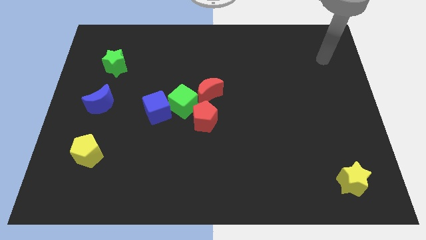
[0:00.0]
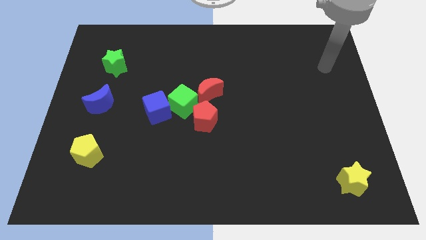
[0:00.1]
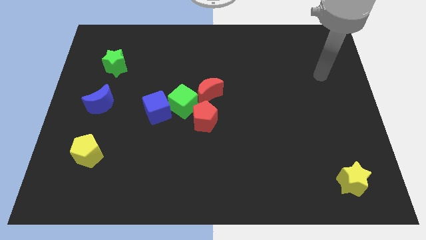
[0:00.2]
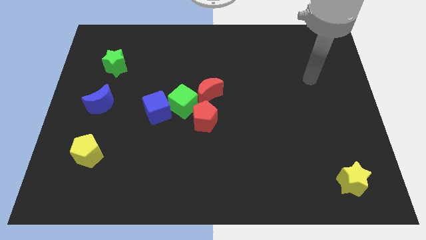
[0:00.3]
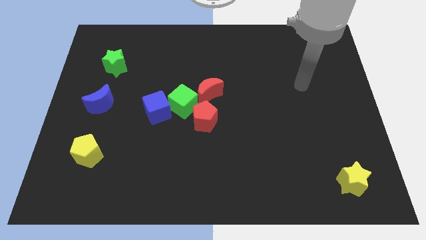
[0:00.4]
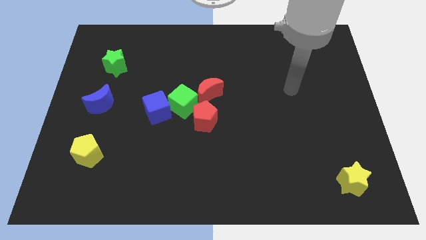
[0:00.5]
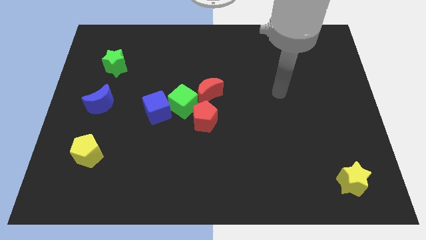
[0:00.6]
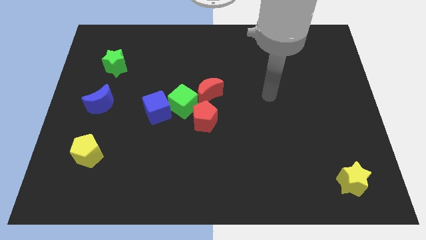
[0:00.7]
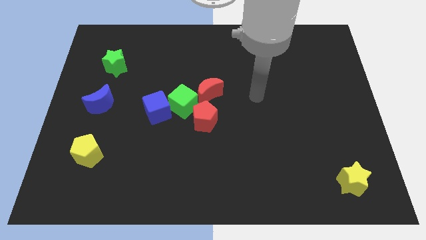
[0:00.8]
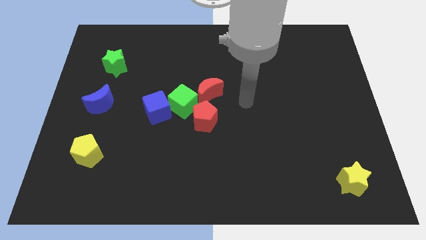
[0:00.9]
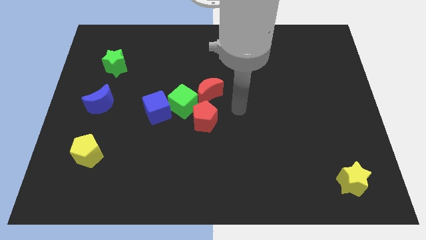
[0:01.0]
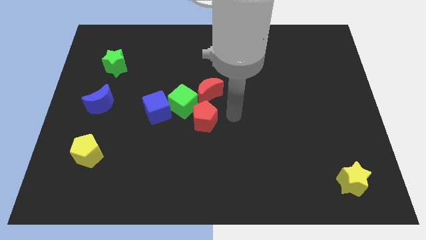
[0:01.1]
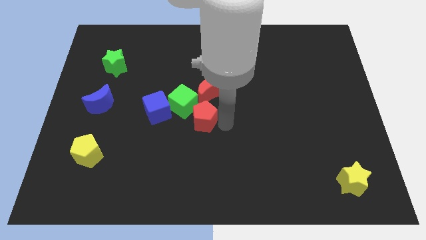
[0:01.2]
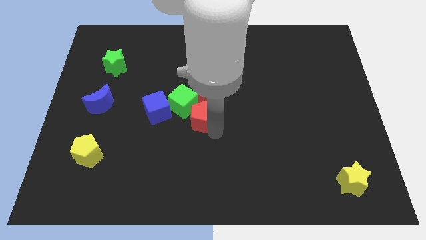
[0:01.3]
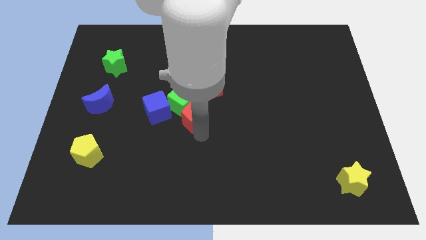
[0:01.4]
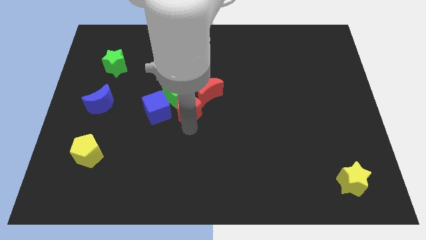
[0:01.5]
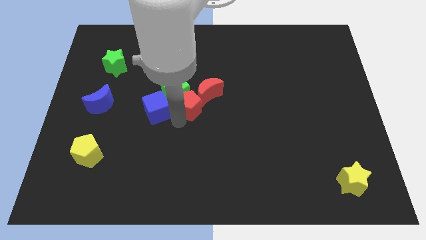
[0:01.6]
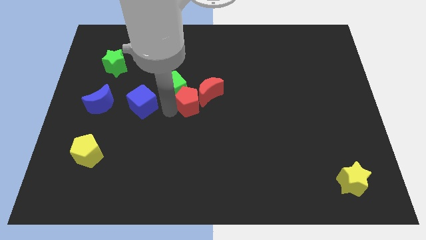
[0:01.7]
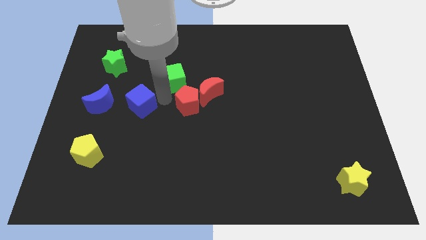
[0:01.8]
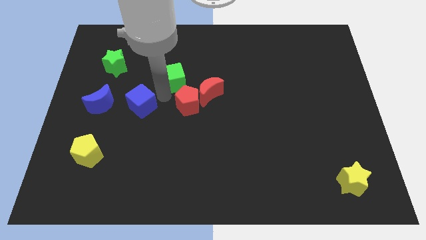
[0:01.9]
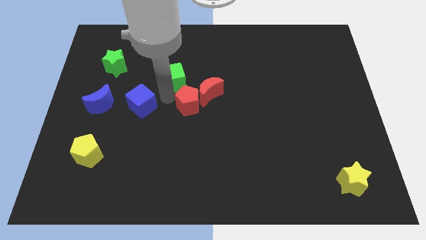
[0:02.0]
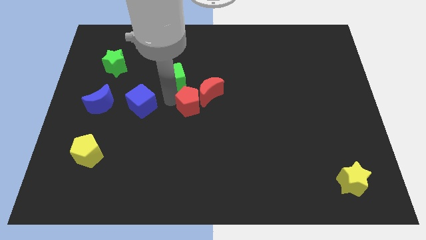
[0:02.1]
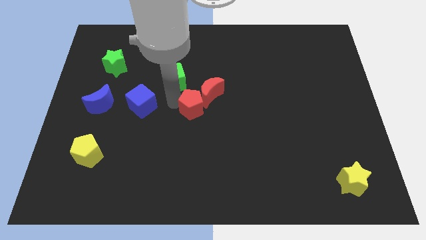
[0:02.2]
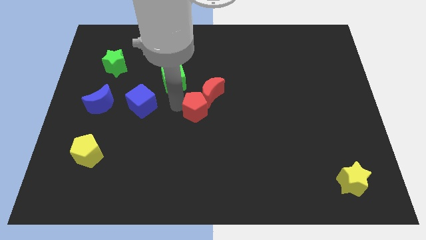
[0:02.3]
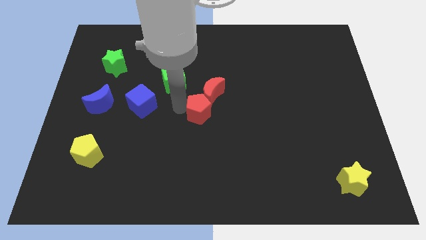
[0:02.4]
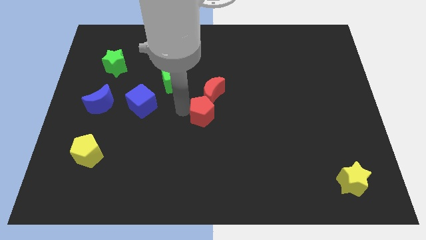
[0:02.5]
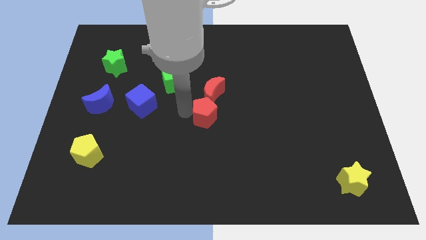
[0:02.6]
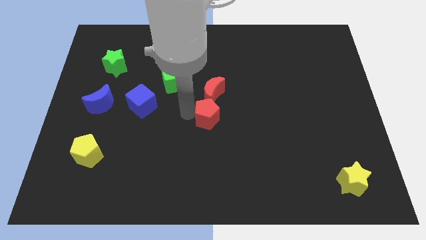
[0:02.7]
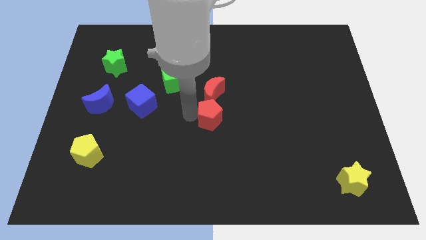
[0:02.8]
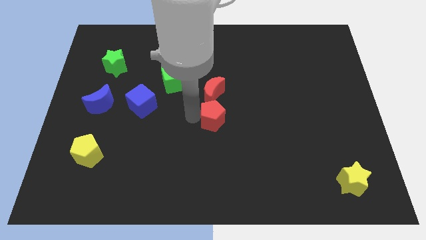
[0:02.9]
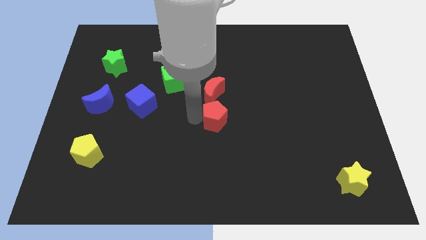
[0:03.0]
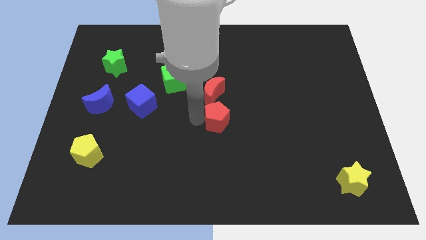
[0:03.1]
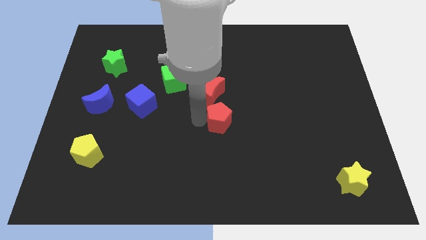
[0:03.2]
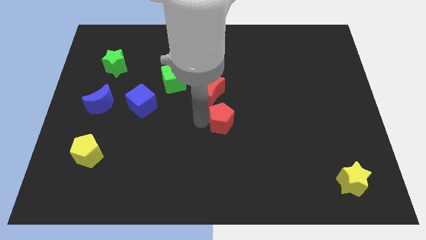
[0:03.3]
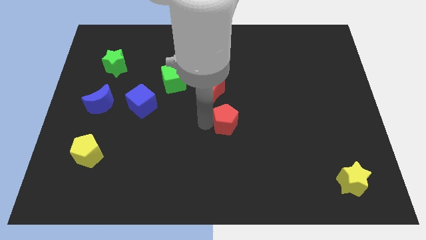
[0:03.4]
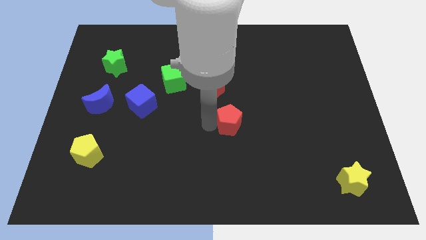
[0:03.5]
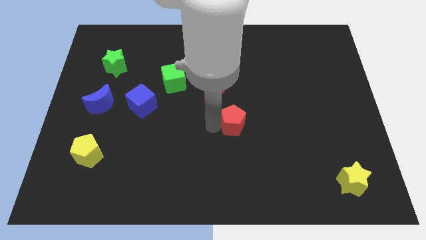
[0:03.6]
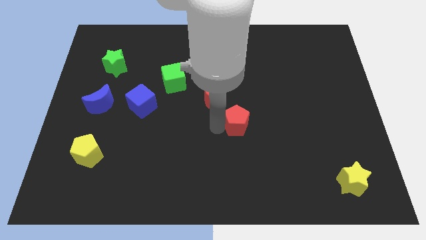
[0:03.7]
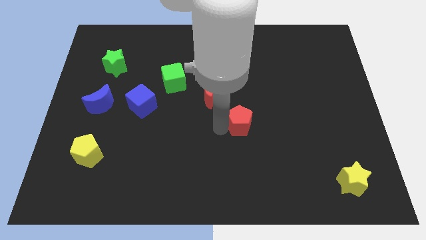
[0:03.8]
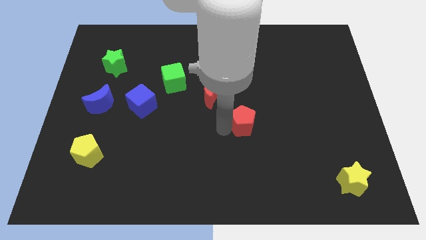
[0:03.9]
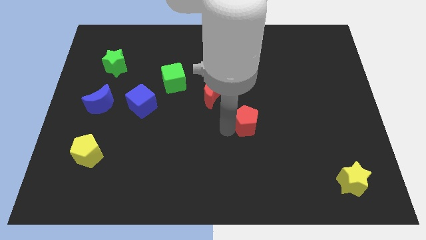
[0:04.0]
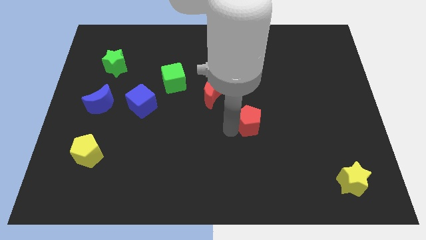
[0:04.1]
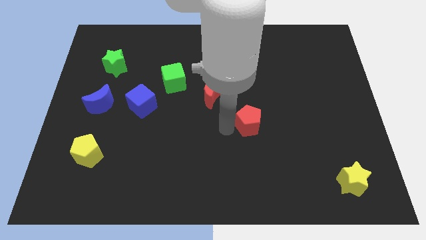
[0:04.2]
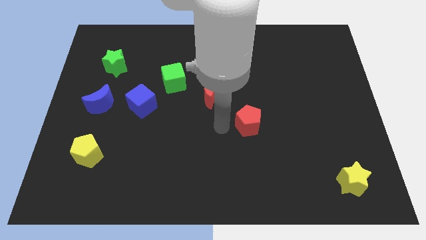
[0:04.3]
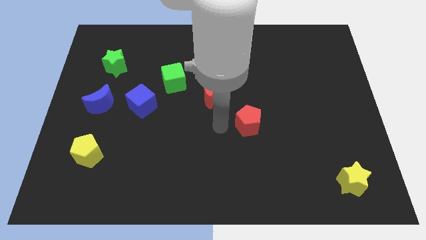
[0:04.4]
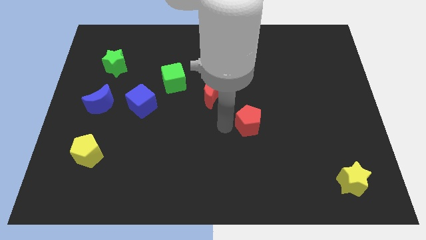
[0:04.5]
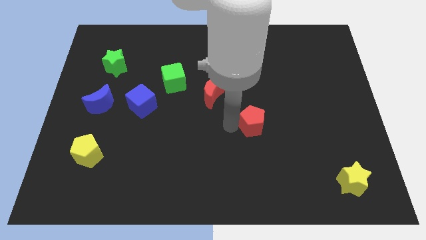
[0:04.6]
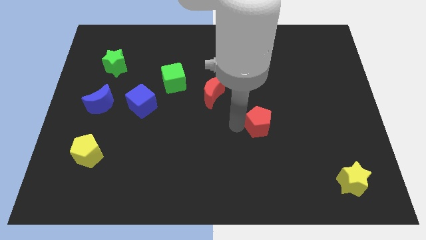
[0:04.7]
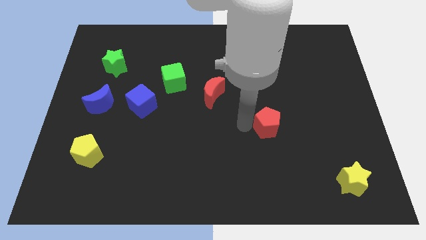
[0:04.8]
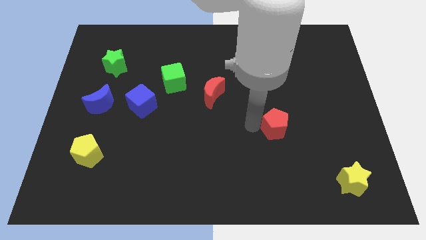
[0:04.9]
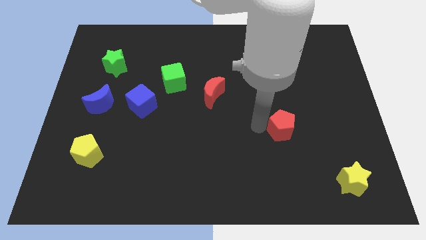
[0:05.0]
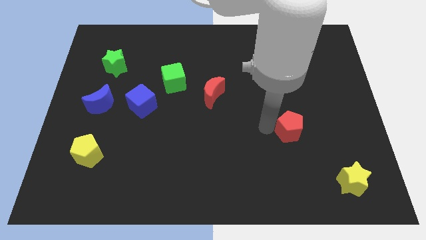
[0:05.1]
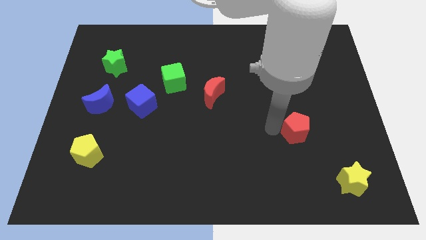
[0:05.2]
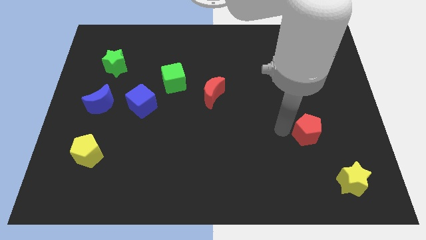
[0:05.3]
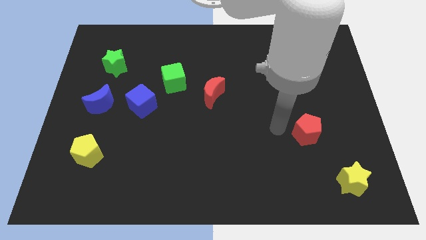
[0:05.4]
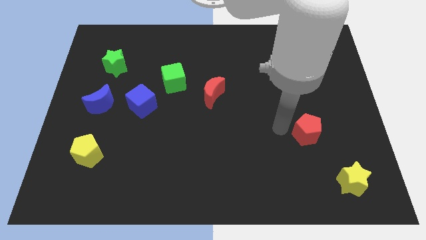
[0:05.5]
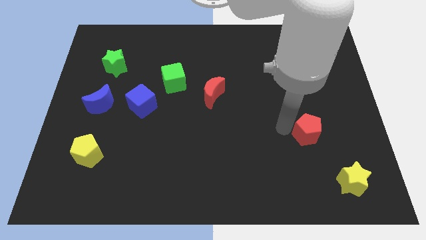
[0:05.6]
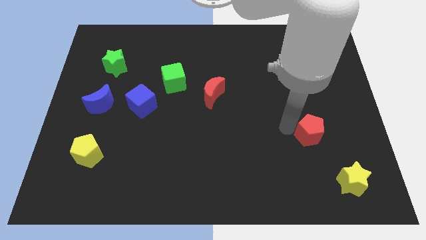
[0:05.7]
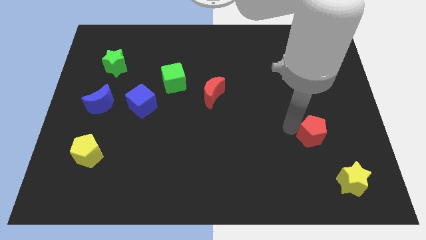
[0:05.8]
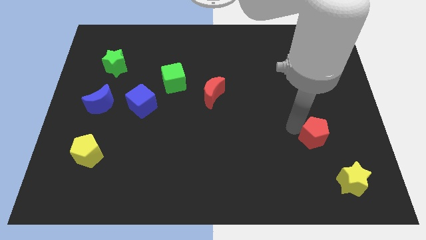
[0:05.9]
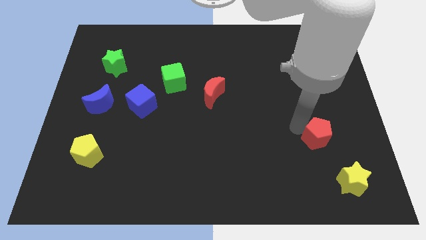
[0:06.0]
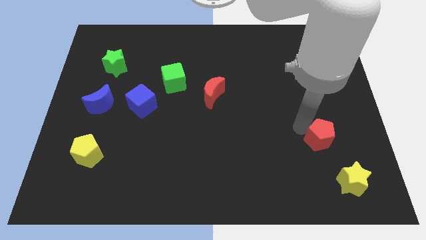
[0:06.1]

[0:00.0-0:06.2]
push the red pentagon above the yellow star

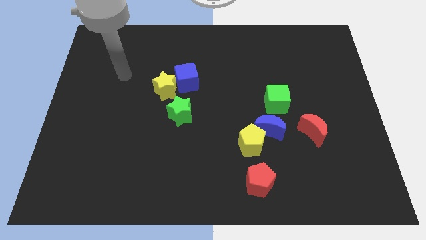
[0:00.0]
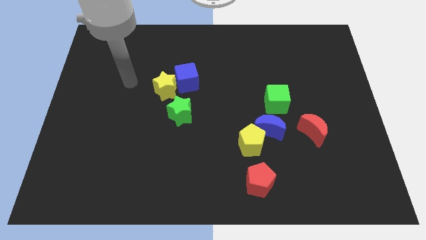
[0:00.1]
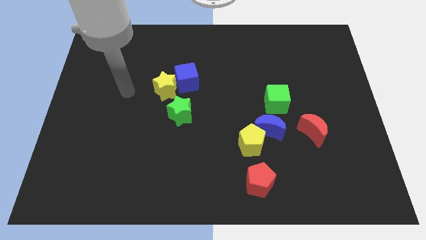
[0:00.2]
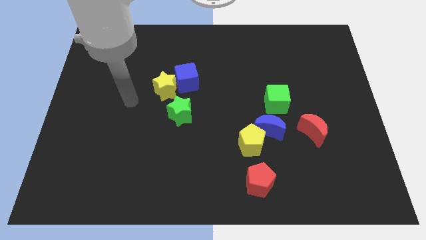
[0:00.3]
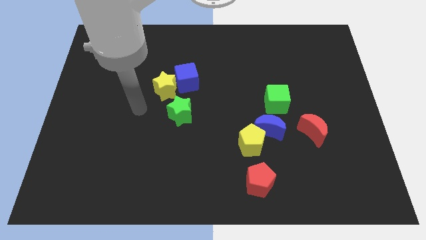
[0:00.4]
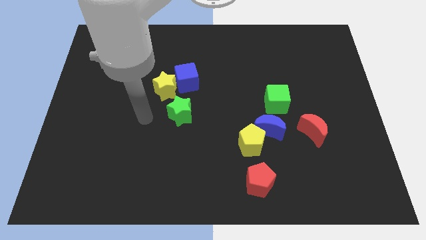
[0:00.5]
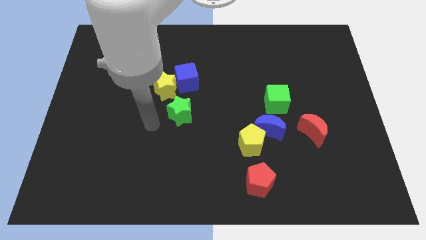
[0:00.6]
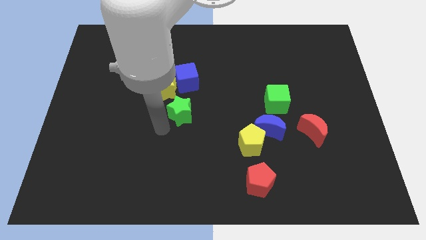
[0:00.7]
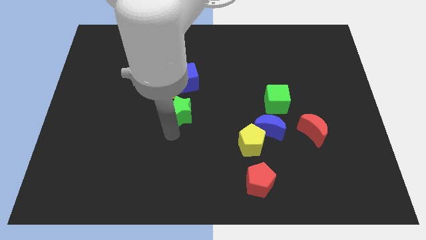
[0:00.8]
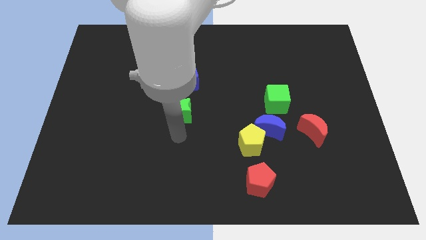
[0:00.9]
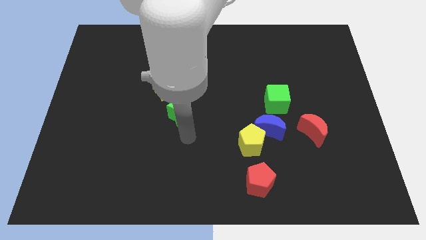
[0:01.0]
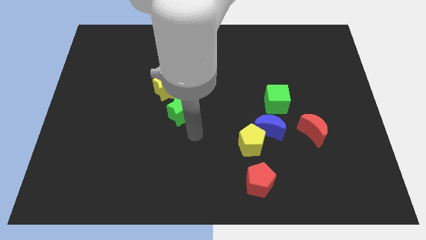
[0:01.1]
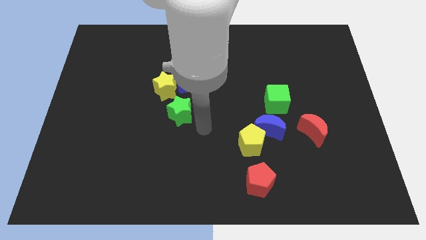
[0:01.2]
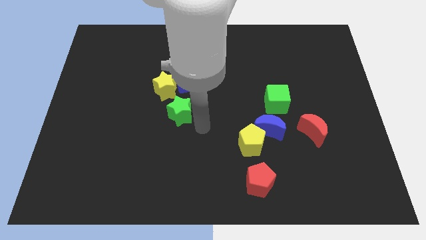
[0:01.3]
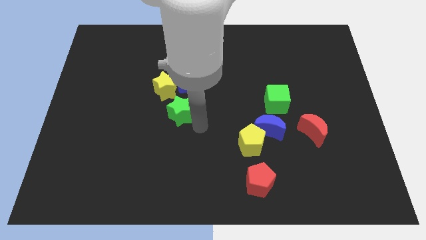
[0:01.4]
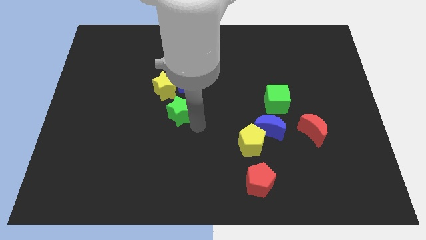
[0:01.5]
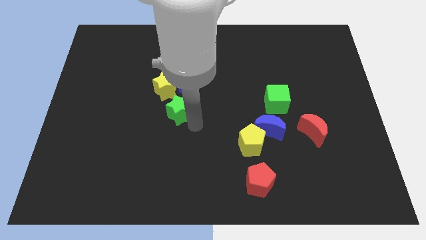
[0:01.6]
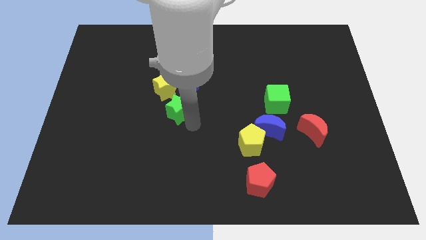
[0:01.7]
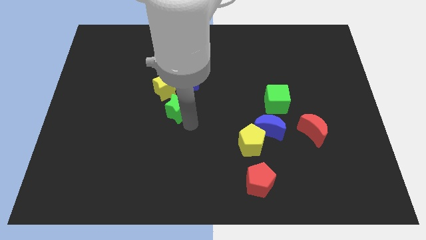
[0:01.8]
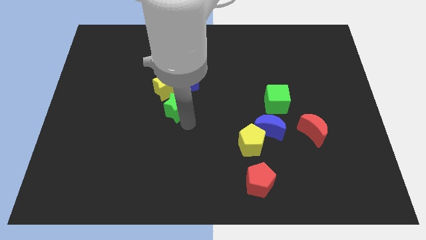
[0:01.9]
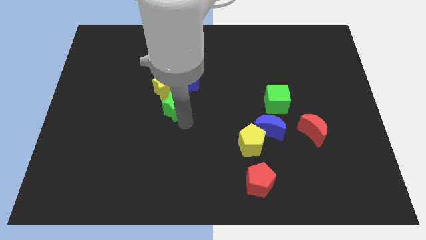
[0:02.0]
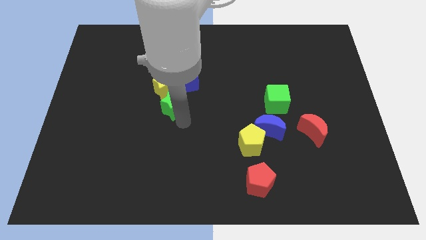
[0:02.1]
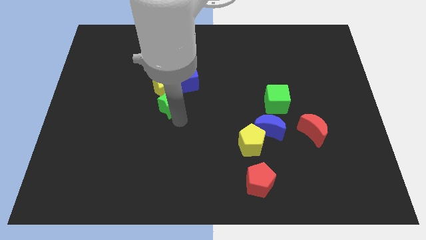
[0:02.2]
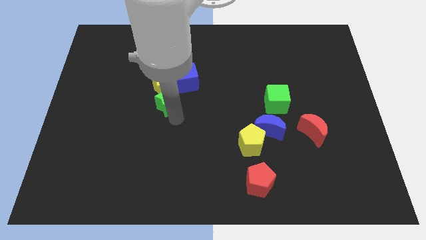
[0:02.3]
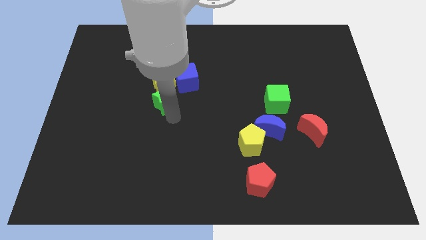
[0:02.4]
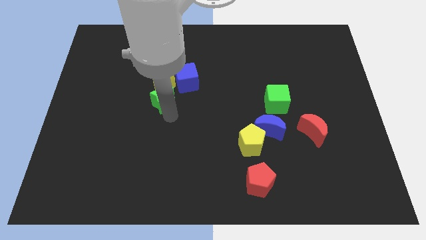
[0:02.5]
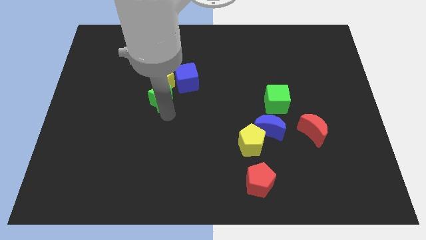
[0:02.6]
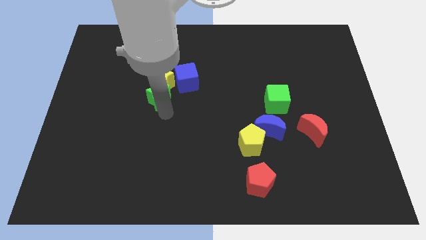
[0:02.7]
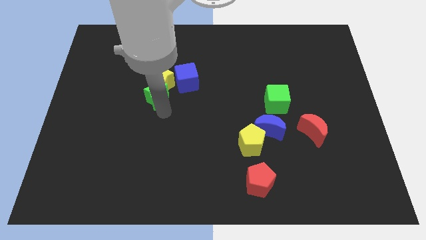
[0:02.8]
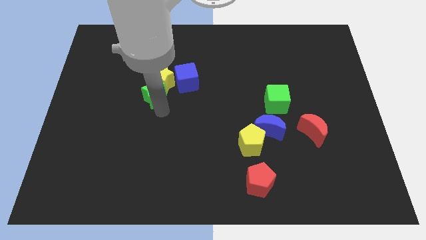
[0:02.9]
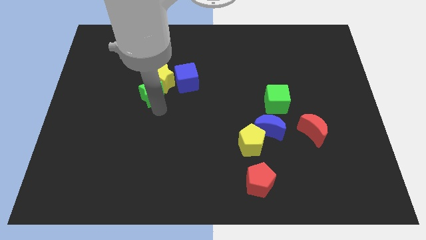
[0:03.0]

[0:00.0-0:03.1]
move the green star to the left side of the blue cube
